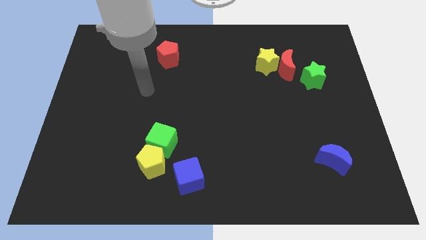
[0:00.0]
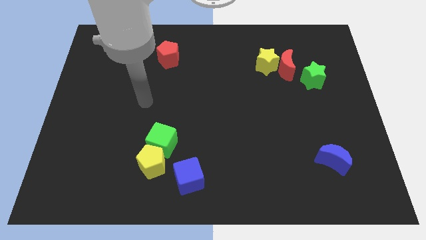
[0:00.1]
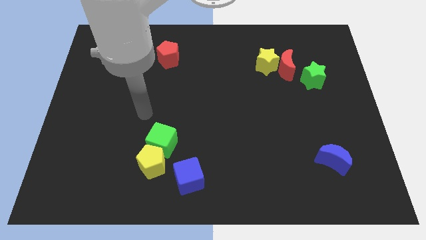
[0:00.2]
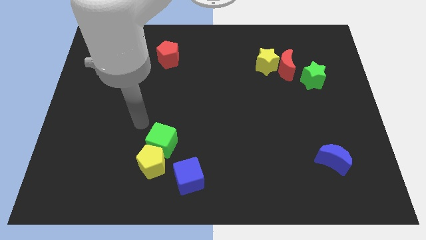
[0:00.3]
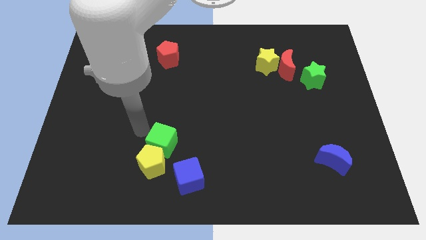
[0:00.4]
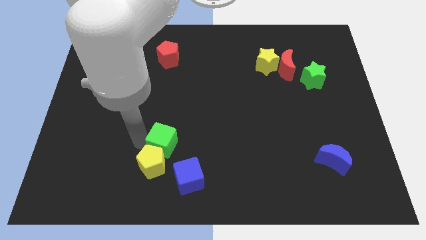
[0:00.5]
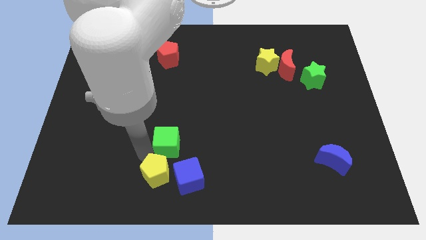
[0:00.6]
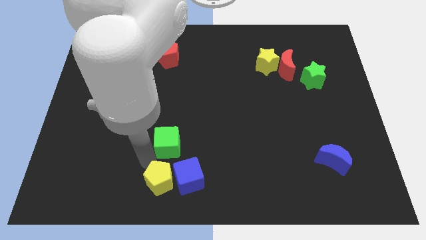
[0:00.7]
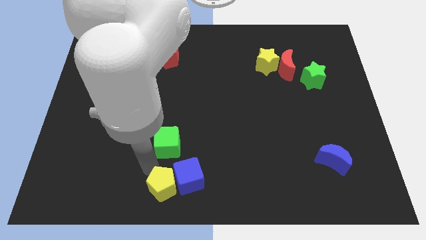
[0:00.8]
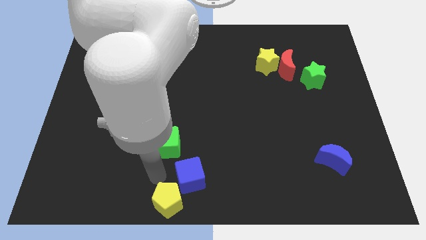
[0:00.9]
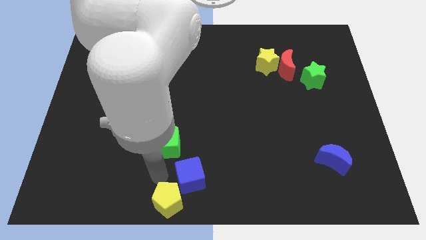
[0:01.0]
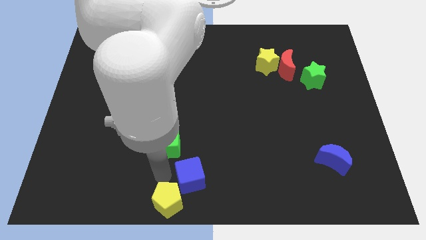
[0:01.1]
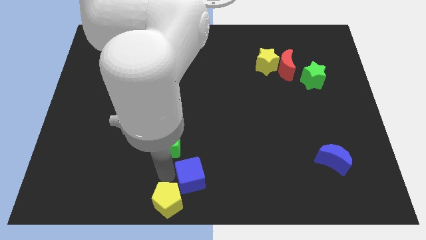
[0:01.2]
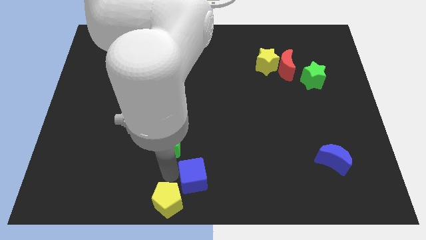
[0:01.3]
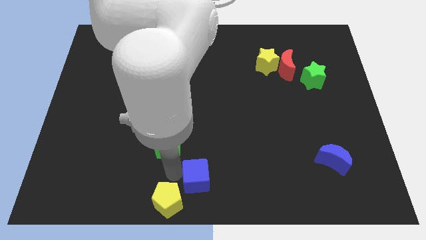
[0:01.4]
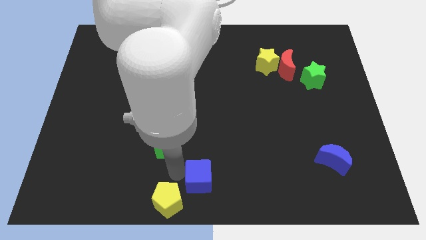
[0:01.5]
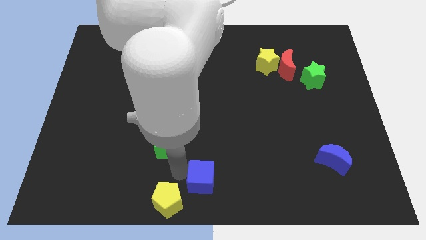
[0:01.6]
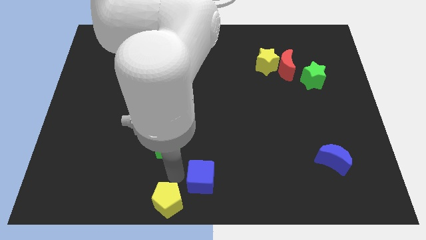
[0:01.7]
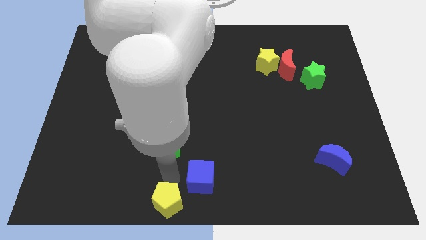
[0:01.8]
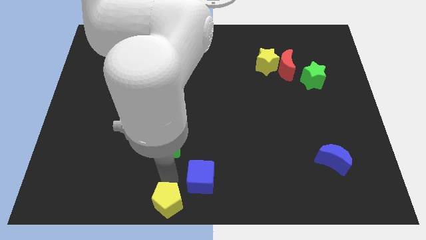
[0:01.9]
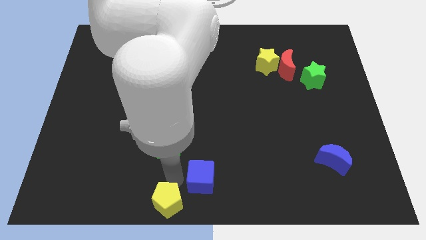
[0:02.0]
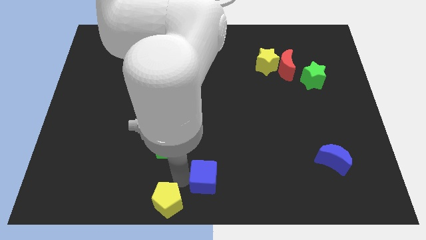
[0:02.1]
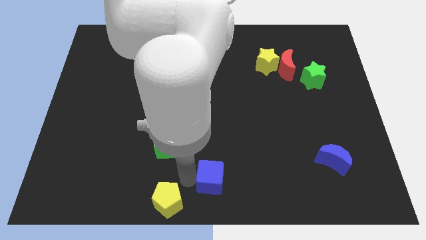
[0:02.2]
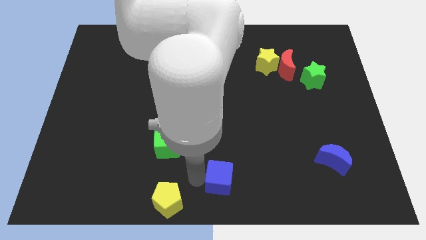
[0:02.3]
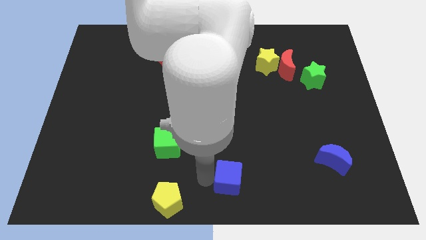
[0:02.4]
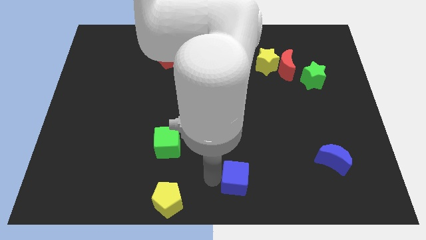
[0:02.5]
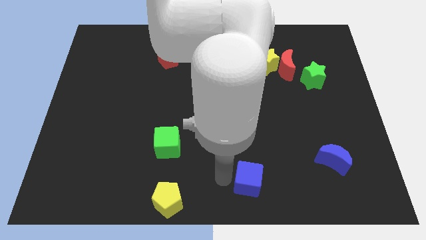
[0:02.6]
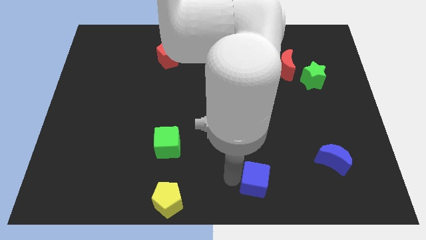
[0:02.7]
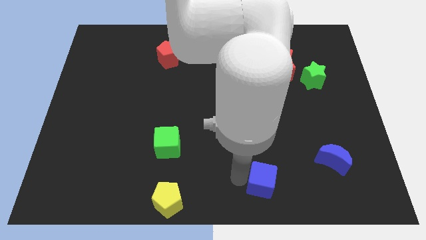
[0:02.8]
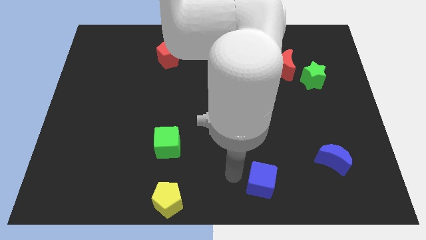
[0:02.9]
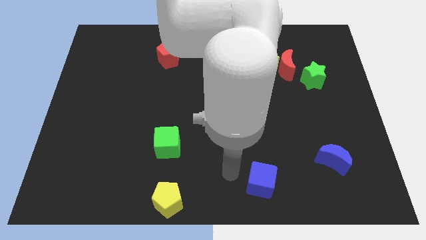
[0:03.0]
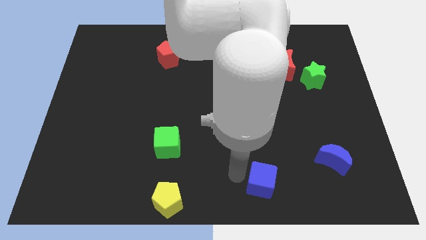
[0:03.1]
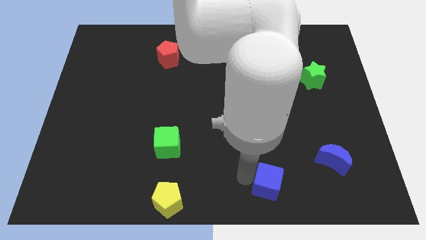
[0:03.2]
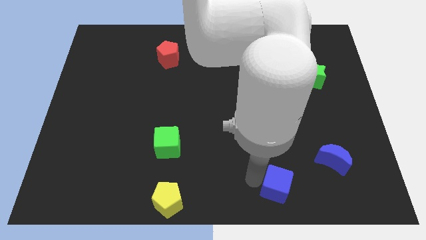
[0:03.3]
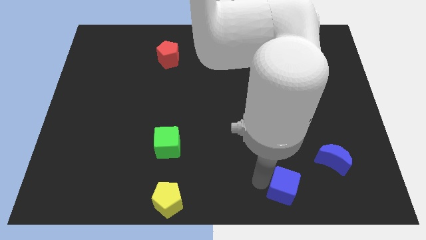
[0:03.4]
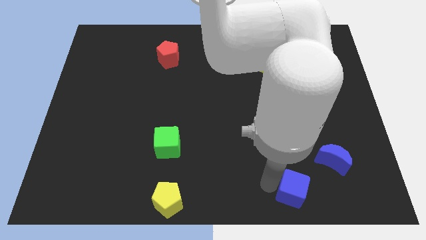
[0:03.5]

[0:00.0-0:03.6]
move the blue cube to the right

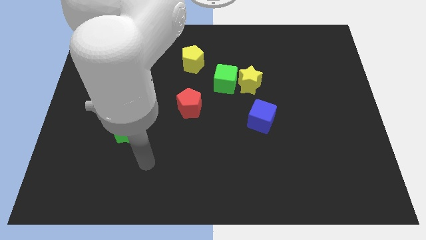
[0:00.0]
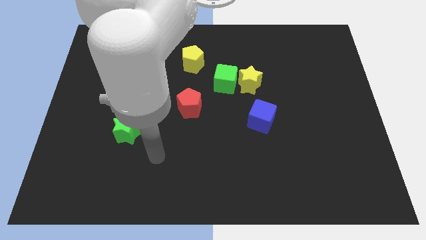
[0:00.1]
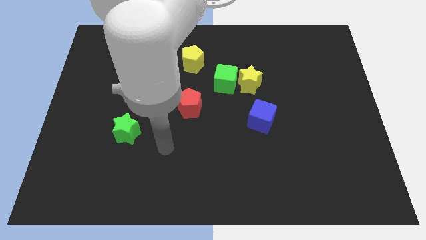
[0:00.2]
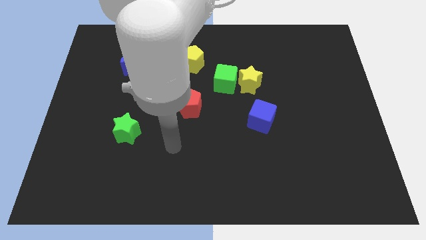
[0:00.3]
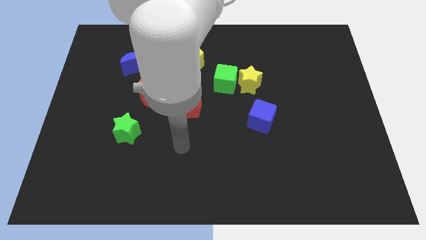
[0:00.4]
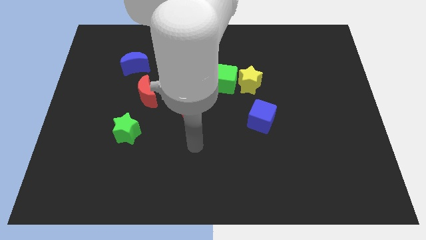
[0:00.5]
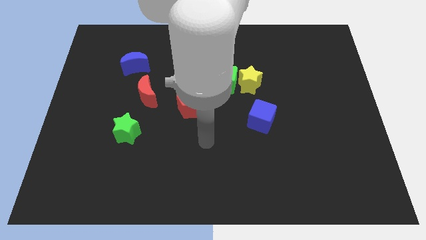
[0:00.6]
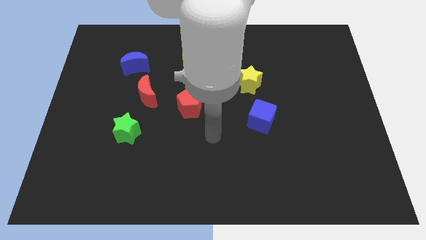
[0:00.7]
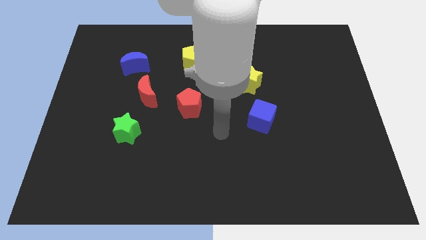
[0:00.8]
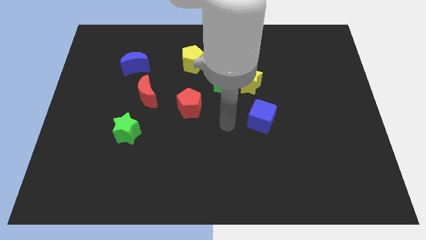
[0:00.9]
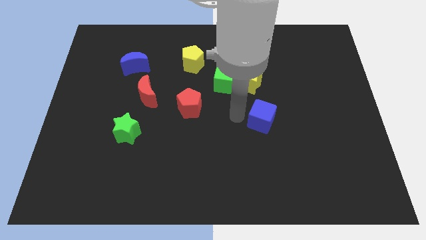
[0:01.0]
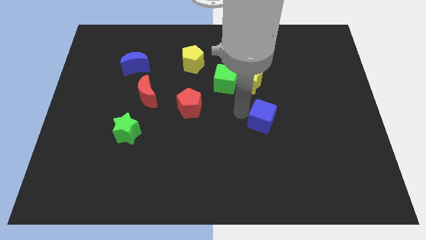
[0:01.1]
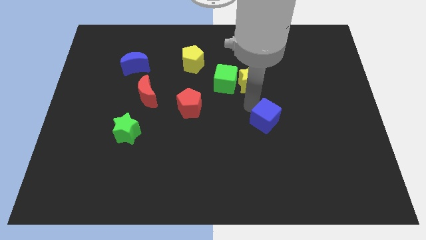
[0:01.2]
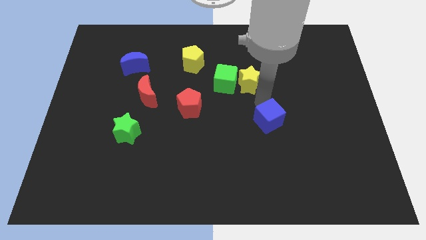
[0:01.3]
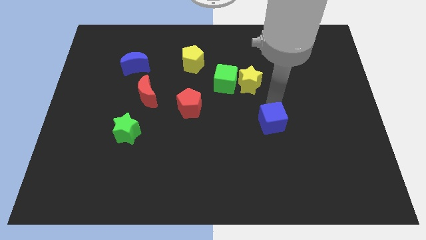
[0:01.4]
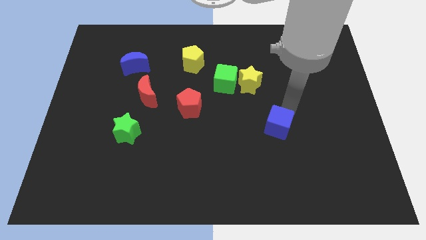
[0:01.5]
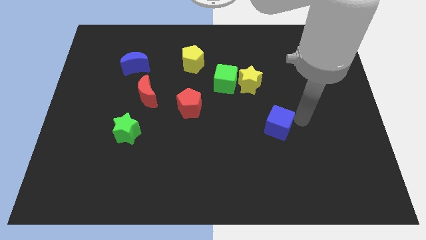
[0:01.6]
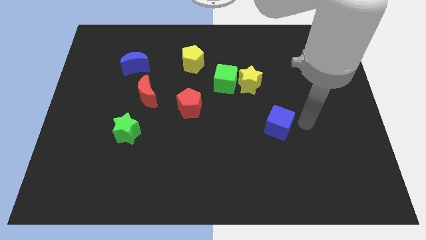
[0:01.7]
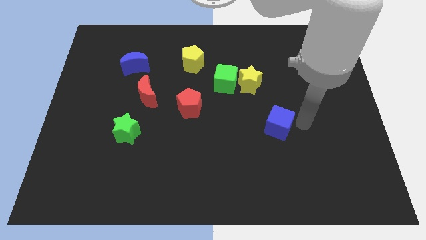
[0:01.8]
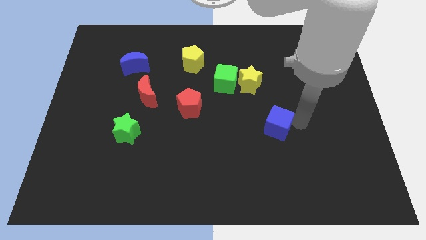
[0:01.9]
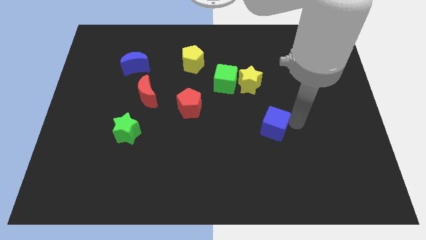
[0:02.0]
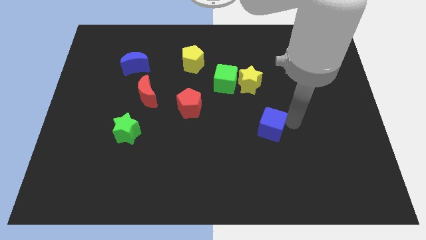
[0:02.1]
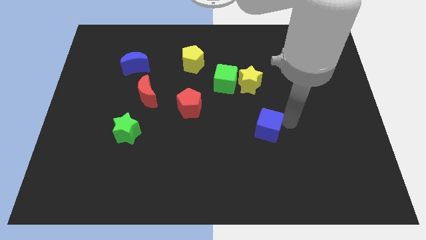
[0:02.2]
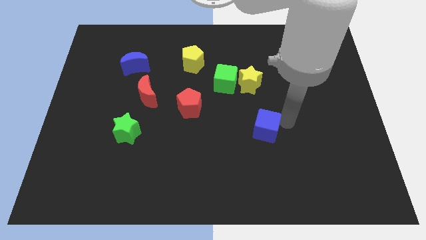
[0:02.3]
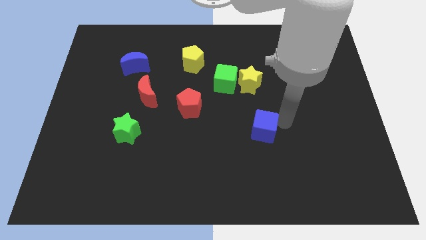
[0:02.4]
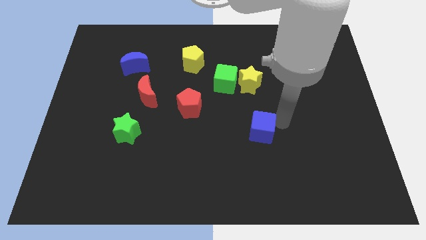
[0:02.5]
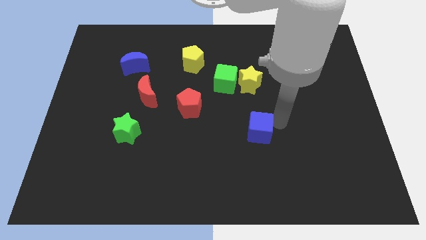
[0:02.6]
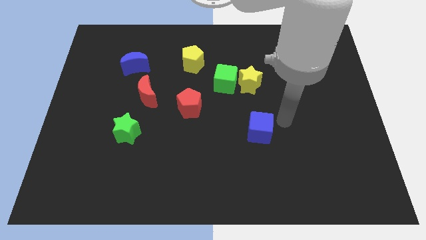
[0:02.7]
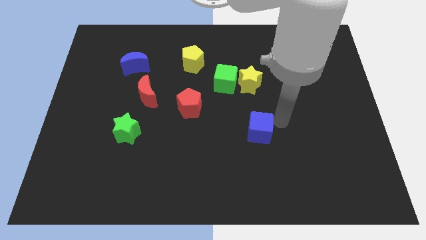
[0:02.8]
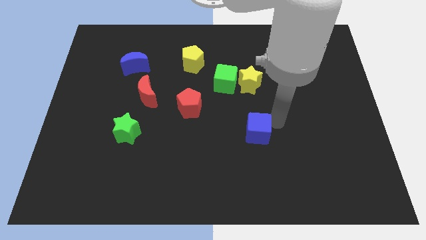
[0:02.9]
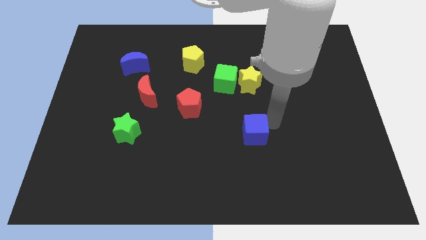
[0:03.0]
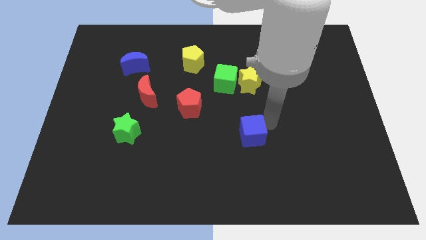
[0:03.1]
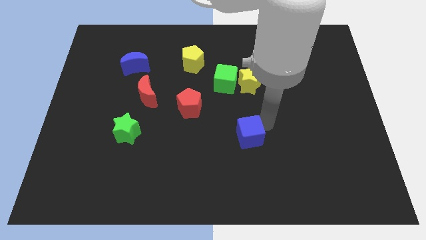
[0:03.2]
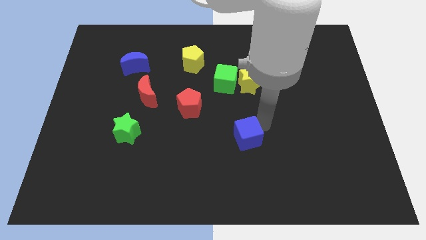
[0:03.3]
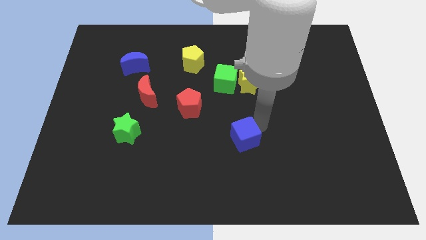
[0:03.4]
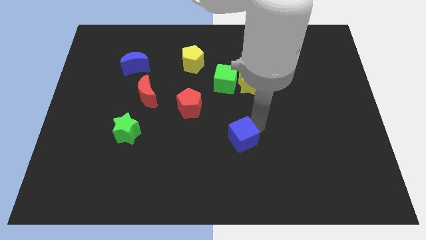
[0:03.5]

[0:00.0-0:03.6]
push the blue cube down and left diagonally a little

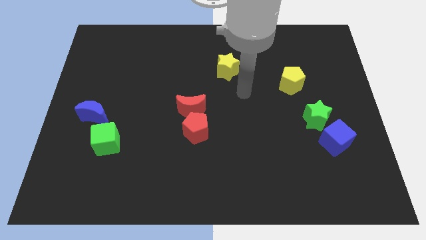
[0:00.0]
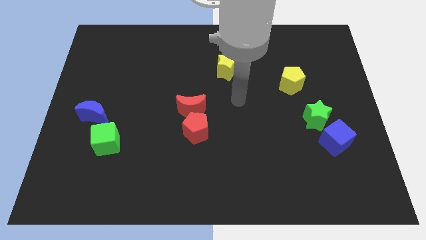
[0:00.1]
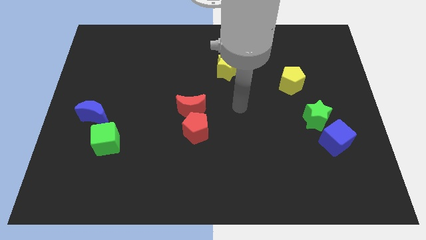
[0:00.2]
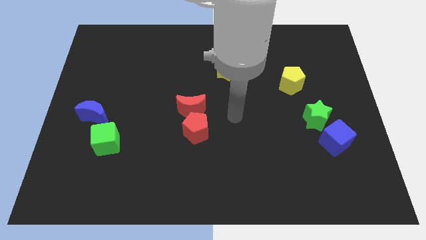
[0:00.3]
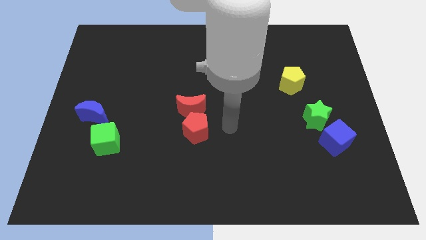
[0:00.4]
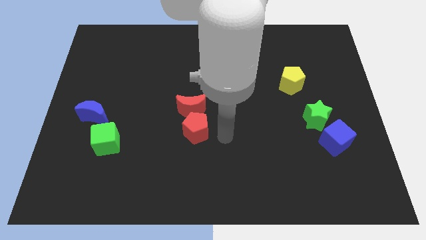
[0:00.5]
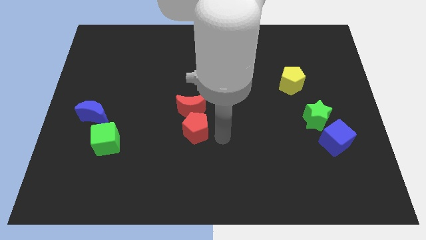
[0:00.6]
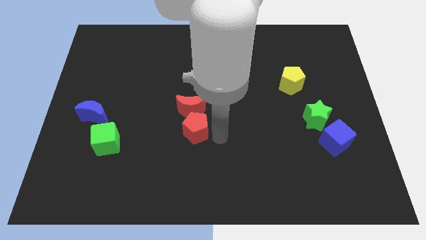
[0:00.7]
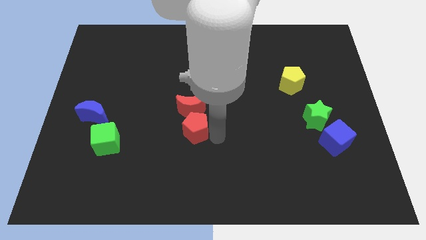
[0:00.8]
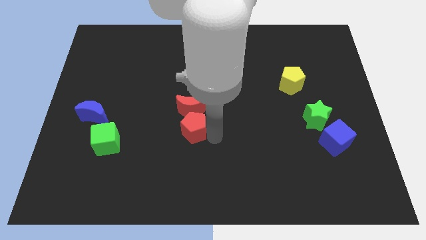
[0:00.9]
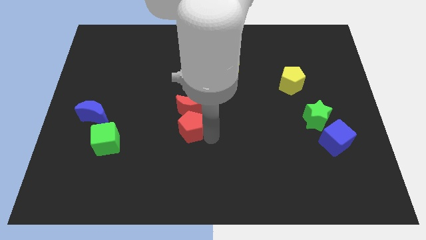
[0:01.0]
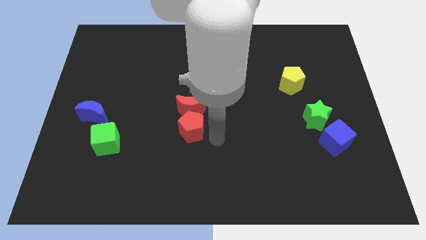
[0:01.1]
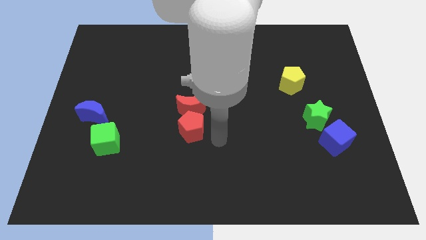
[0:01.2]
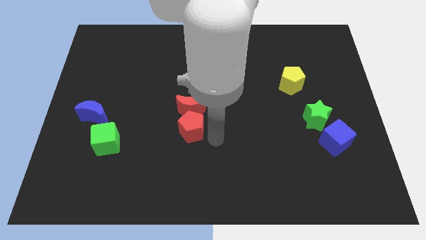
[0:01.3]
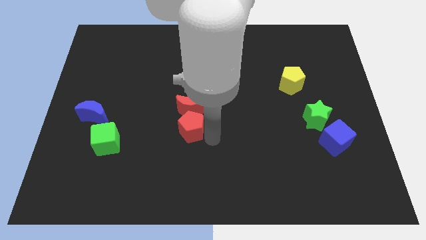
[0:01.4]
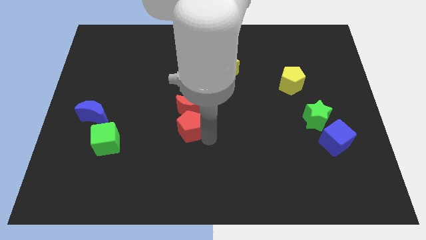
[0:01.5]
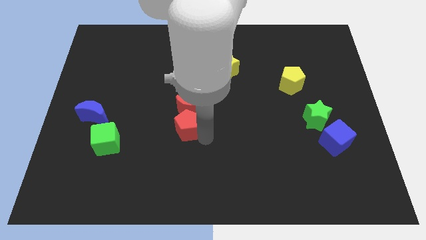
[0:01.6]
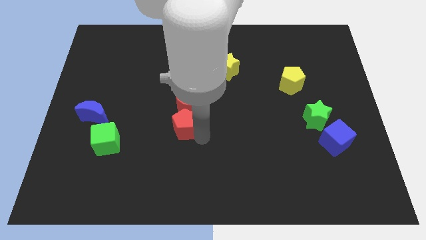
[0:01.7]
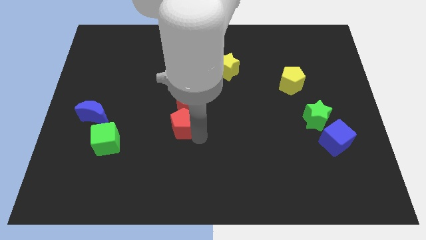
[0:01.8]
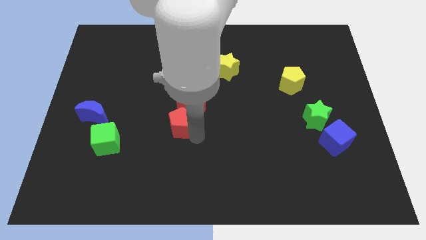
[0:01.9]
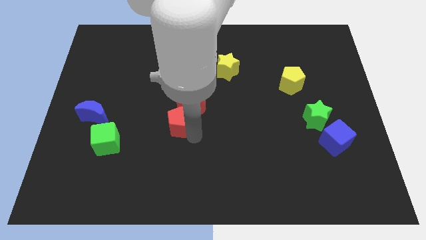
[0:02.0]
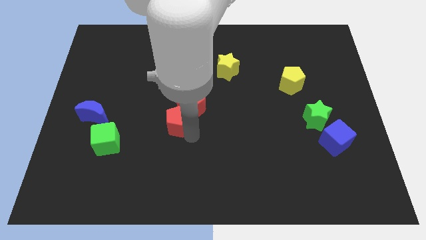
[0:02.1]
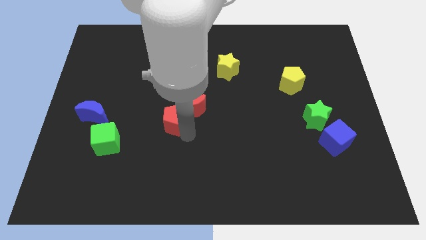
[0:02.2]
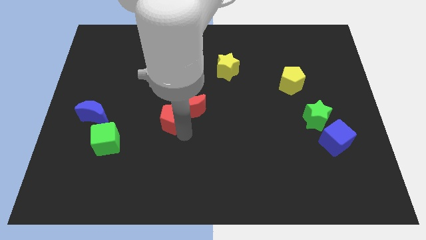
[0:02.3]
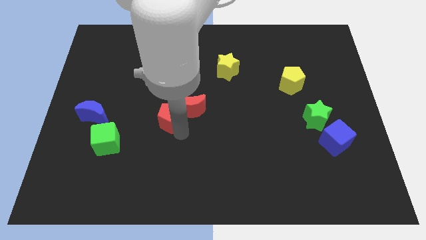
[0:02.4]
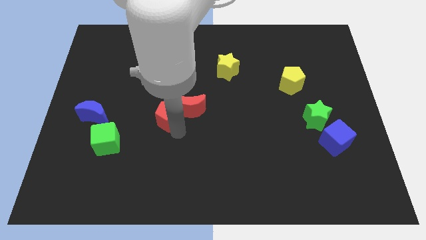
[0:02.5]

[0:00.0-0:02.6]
slightly slide the red pentagon up and then to the left
